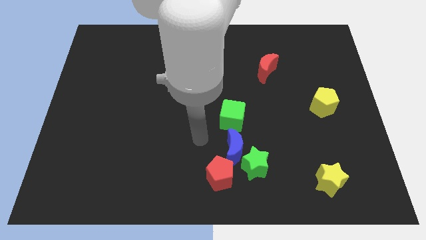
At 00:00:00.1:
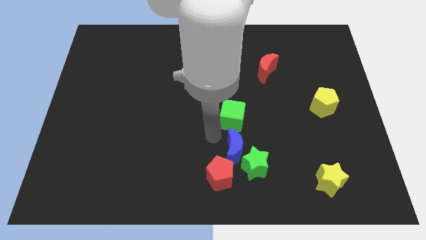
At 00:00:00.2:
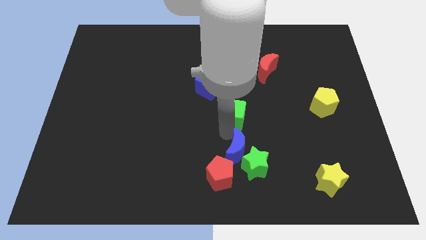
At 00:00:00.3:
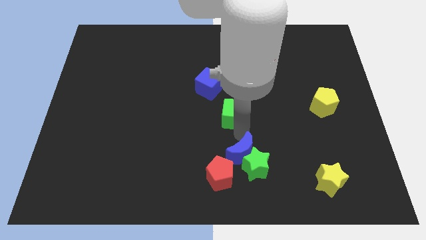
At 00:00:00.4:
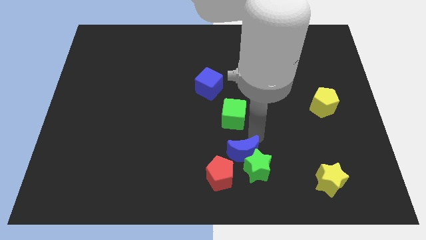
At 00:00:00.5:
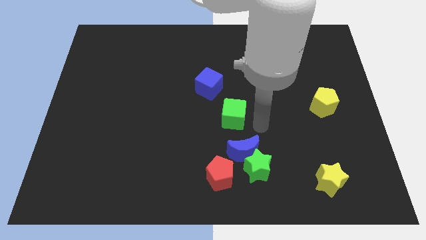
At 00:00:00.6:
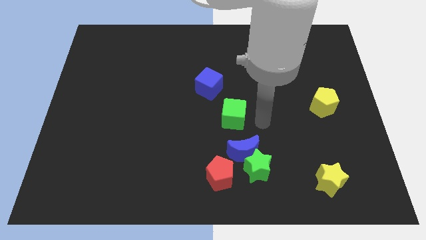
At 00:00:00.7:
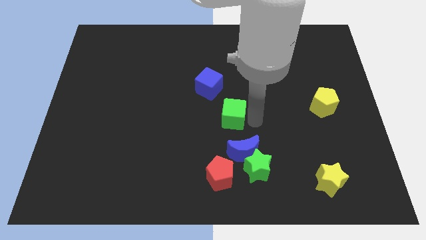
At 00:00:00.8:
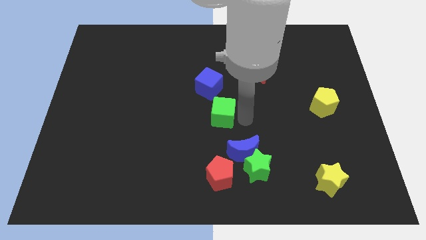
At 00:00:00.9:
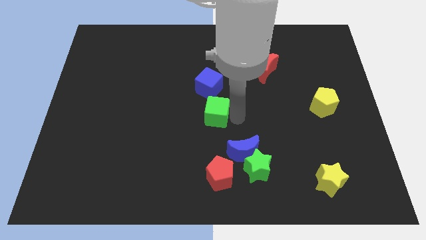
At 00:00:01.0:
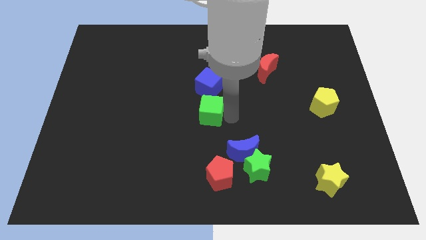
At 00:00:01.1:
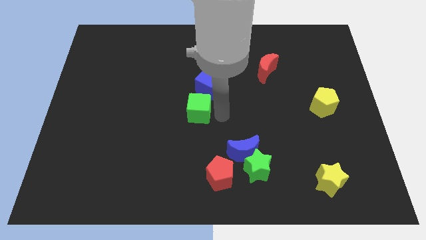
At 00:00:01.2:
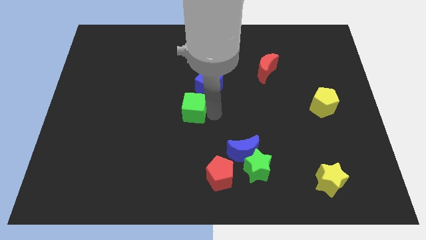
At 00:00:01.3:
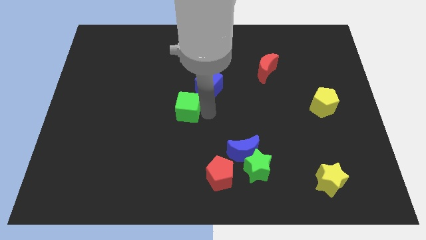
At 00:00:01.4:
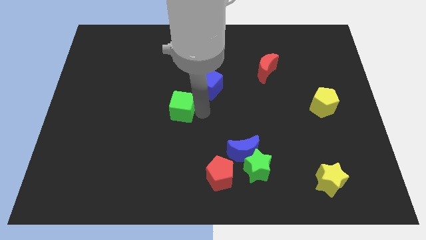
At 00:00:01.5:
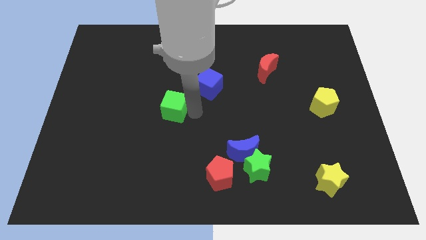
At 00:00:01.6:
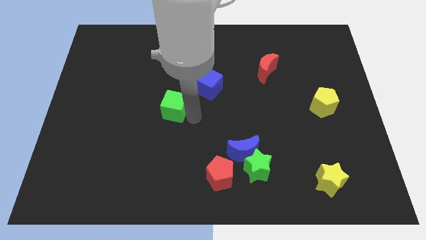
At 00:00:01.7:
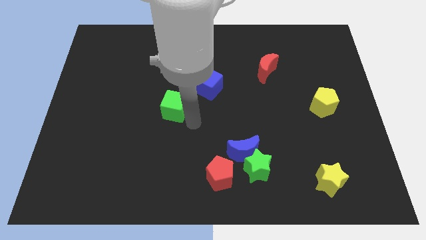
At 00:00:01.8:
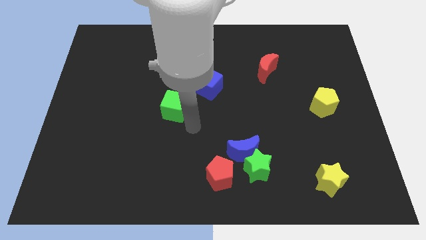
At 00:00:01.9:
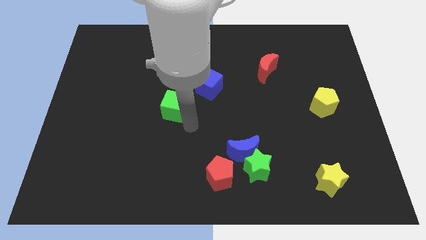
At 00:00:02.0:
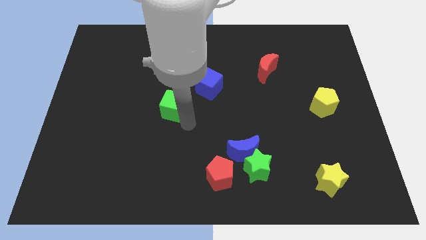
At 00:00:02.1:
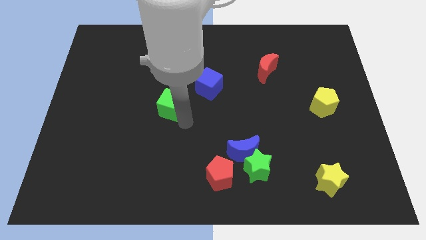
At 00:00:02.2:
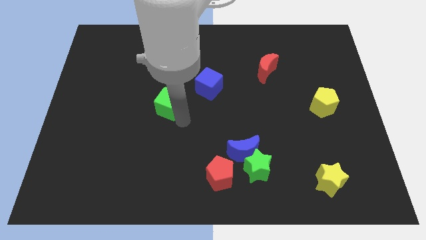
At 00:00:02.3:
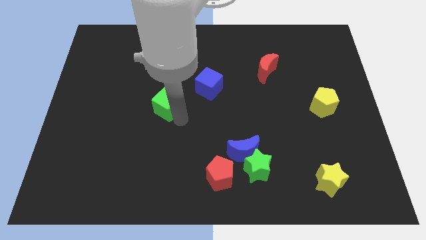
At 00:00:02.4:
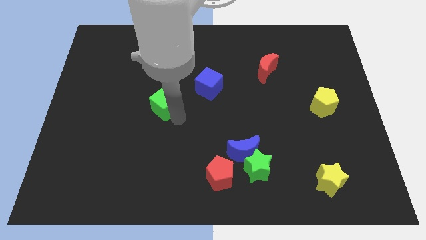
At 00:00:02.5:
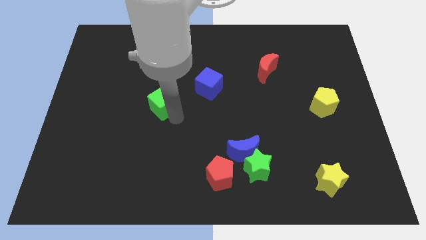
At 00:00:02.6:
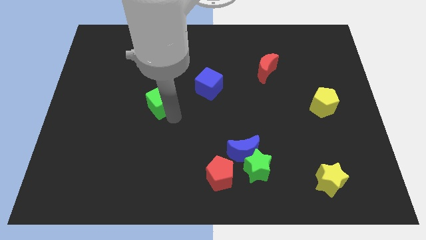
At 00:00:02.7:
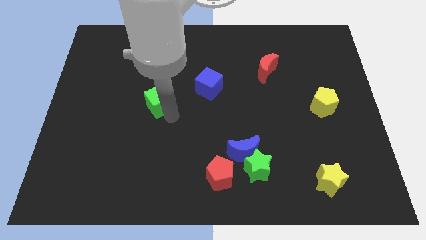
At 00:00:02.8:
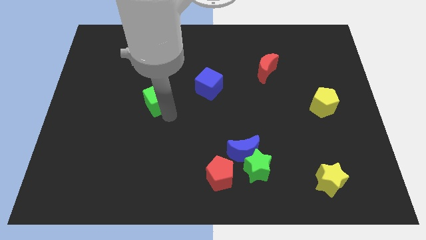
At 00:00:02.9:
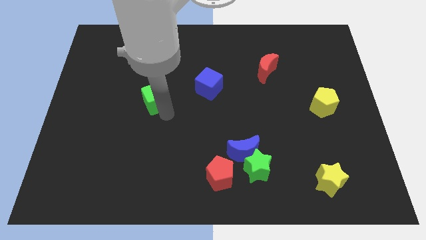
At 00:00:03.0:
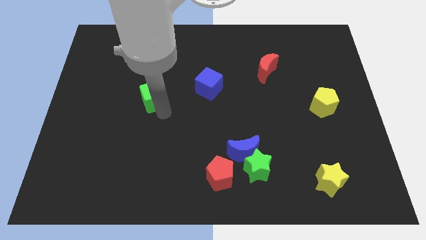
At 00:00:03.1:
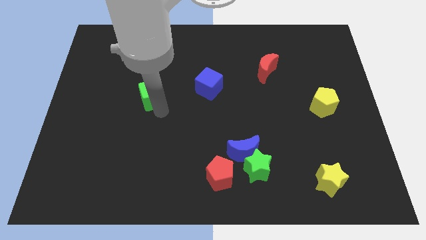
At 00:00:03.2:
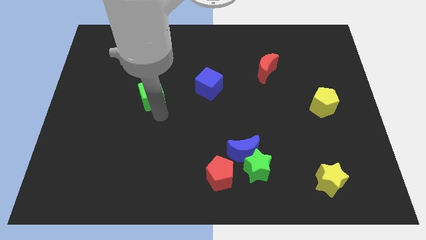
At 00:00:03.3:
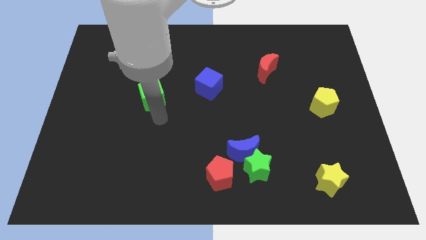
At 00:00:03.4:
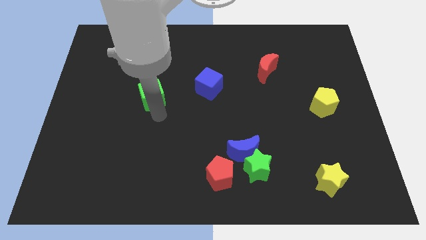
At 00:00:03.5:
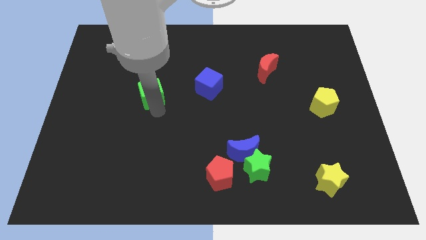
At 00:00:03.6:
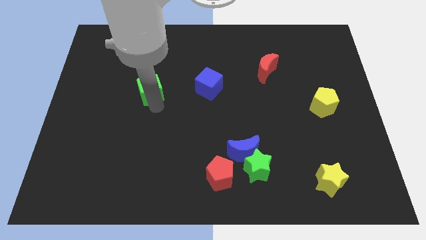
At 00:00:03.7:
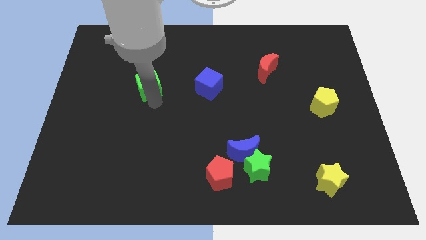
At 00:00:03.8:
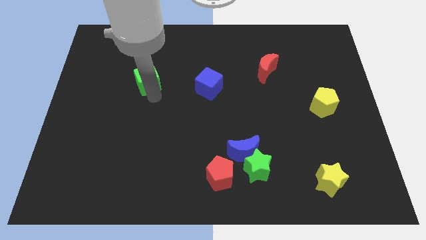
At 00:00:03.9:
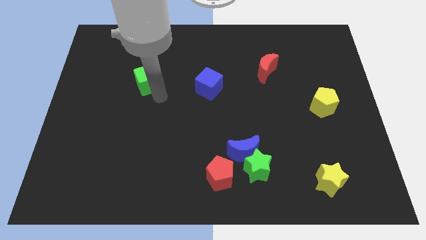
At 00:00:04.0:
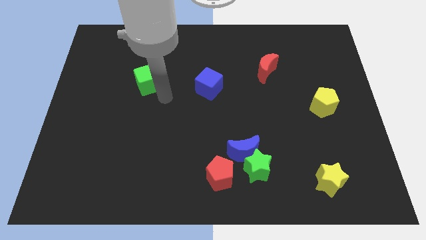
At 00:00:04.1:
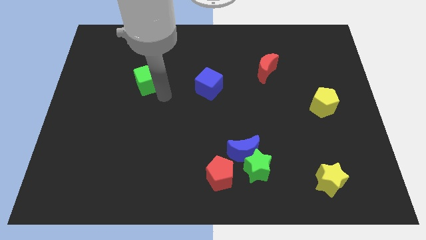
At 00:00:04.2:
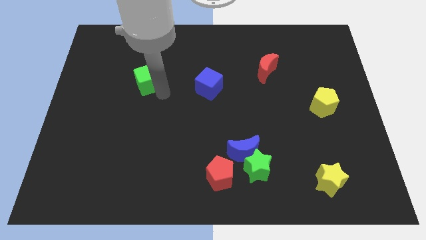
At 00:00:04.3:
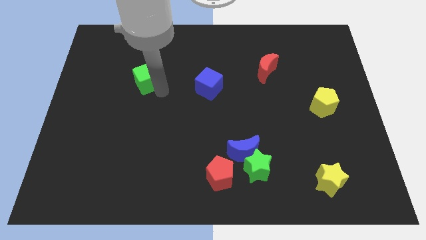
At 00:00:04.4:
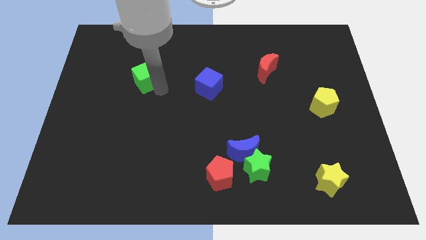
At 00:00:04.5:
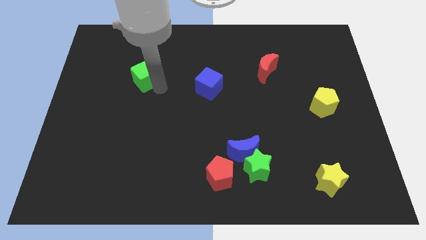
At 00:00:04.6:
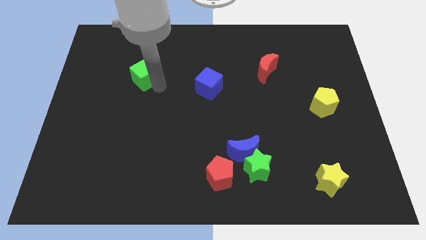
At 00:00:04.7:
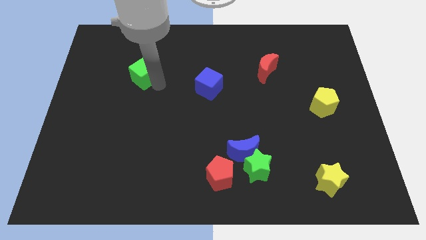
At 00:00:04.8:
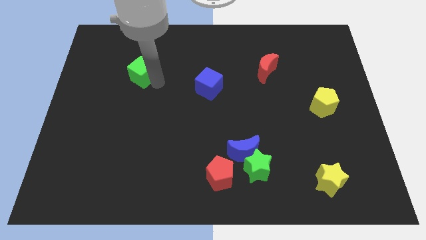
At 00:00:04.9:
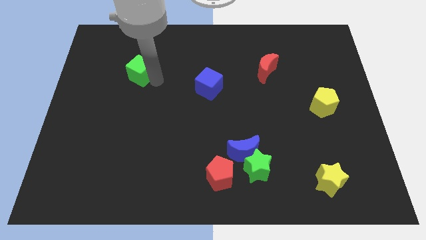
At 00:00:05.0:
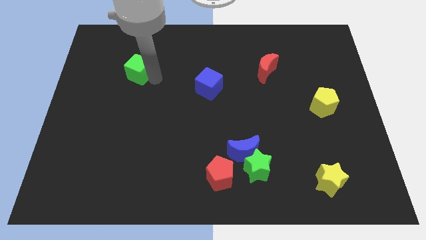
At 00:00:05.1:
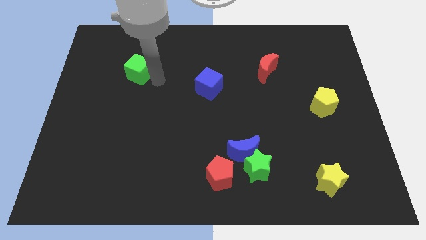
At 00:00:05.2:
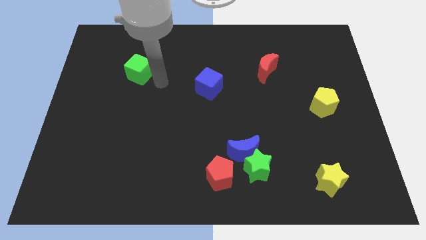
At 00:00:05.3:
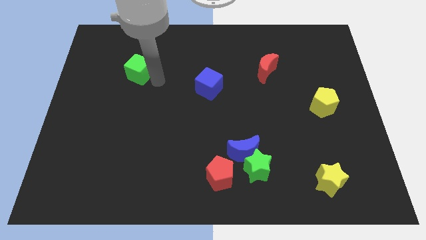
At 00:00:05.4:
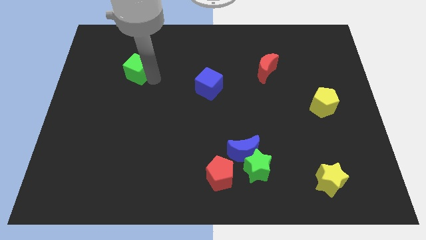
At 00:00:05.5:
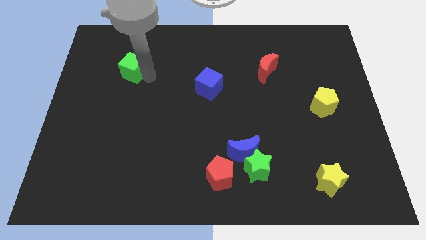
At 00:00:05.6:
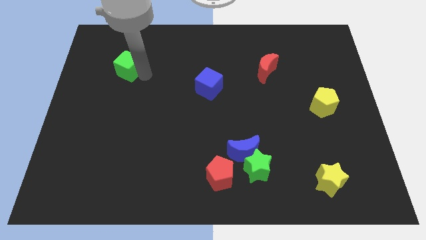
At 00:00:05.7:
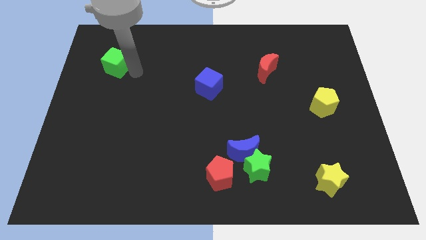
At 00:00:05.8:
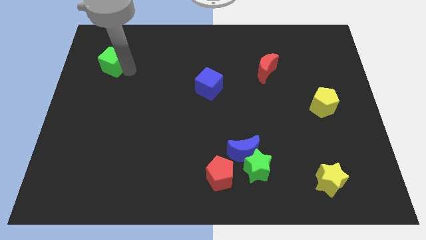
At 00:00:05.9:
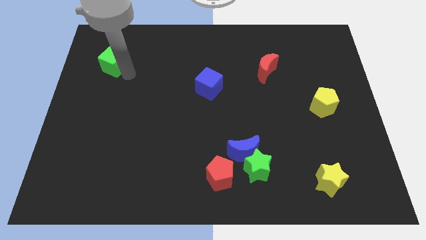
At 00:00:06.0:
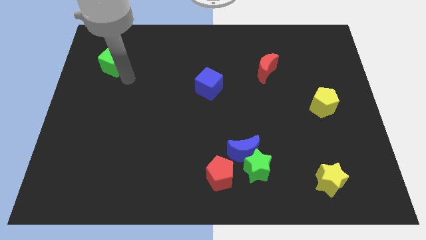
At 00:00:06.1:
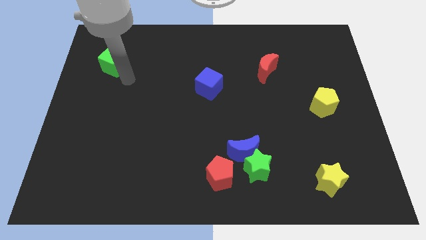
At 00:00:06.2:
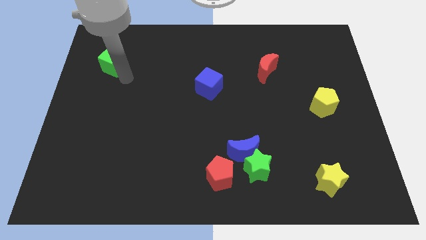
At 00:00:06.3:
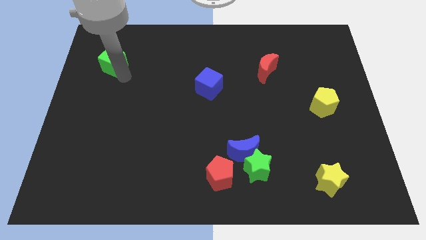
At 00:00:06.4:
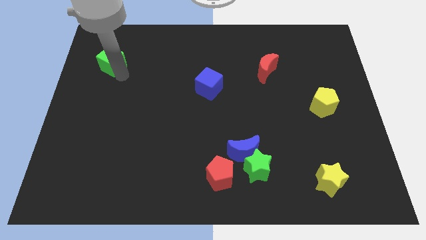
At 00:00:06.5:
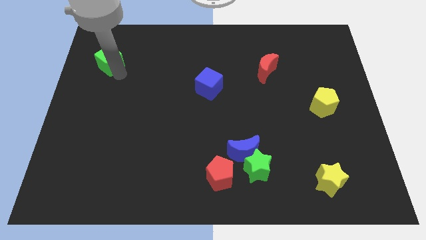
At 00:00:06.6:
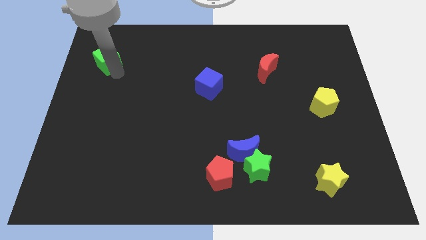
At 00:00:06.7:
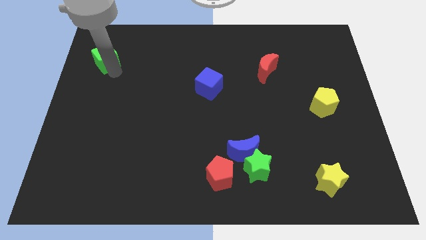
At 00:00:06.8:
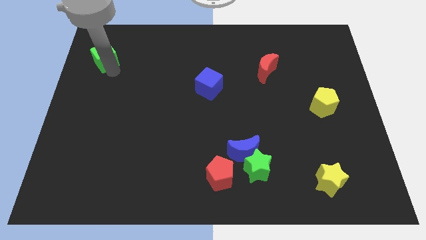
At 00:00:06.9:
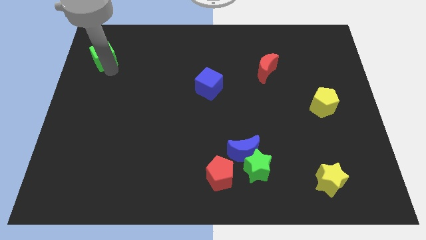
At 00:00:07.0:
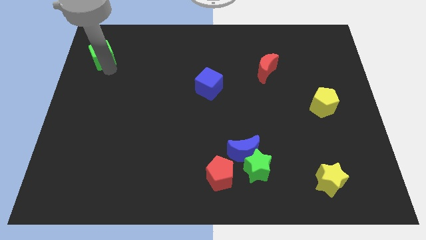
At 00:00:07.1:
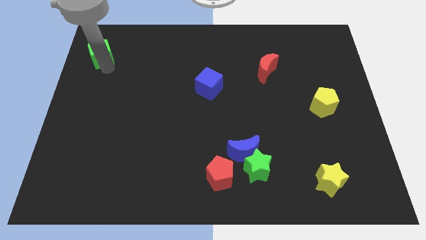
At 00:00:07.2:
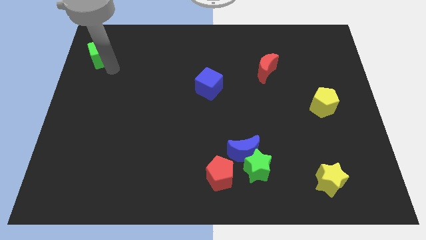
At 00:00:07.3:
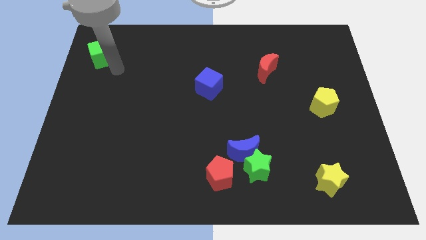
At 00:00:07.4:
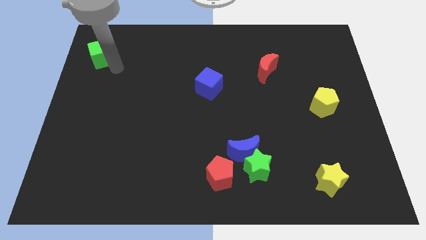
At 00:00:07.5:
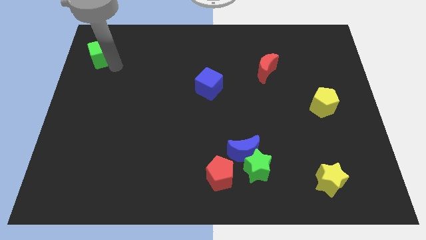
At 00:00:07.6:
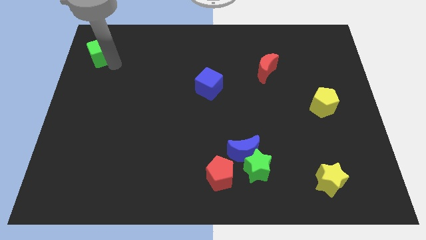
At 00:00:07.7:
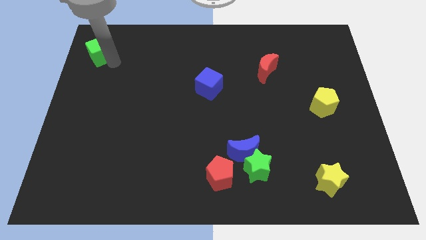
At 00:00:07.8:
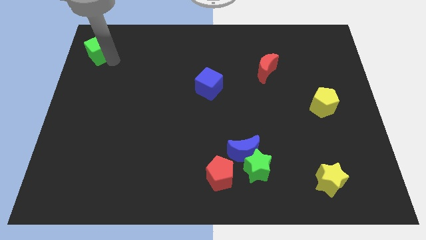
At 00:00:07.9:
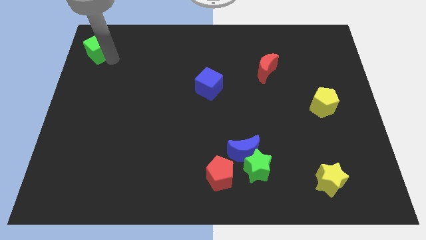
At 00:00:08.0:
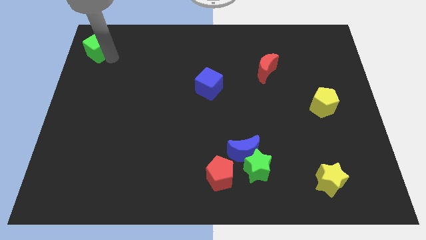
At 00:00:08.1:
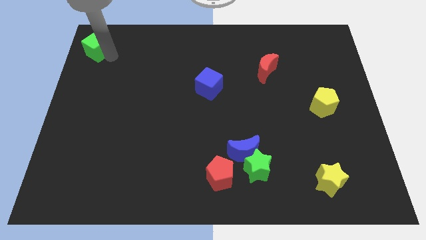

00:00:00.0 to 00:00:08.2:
slide the green cube to the top left
